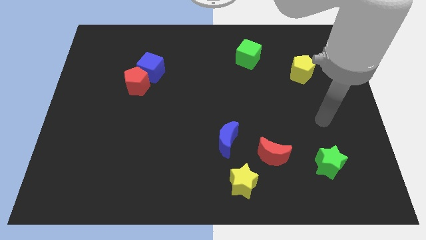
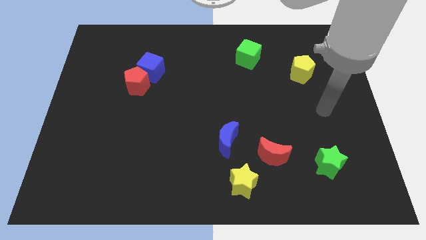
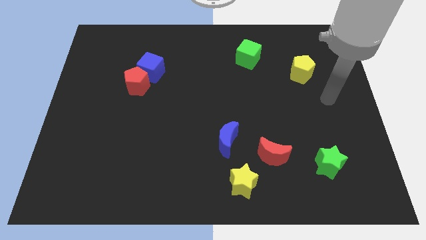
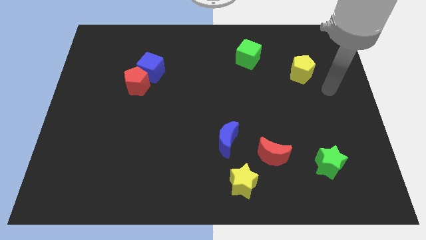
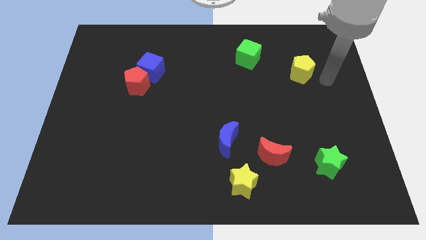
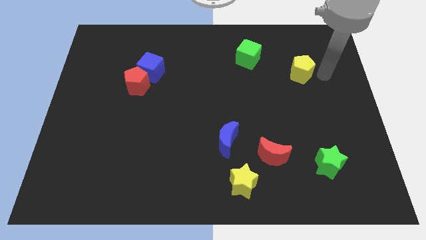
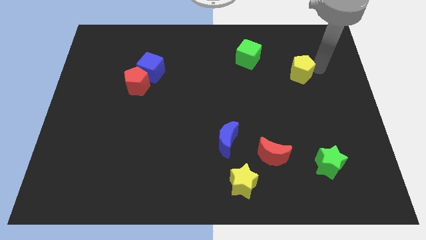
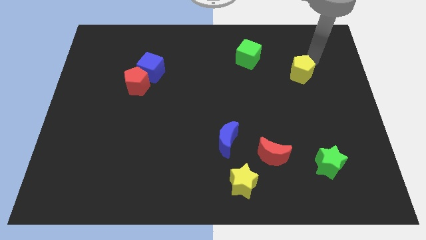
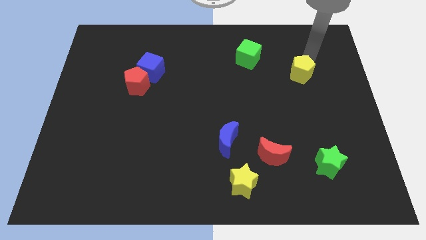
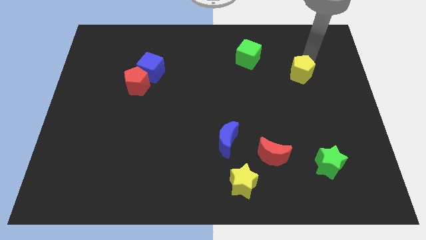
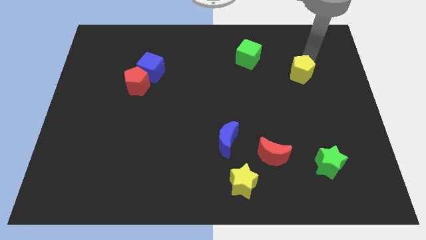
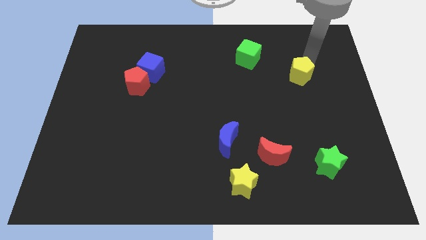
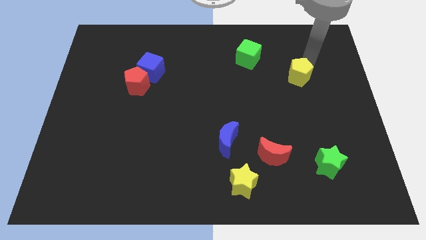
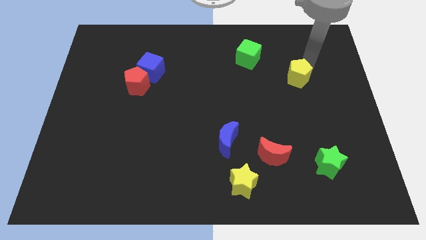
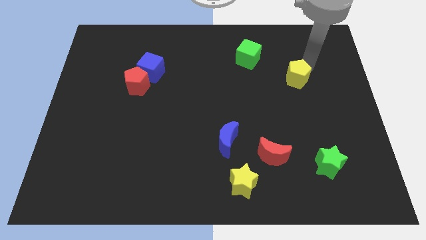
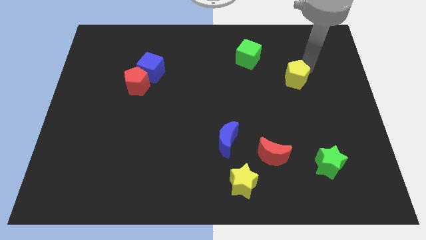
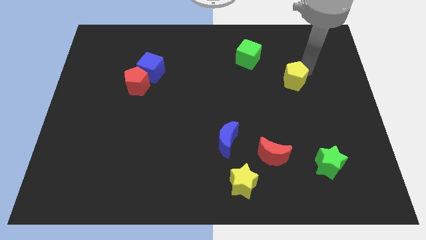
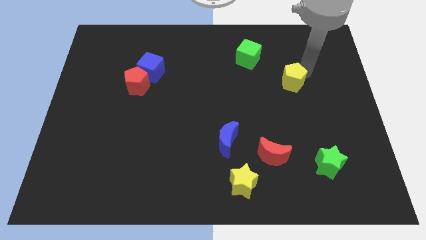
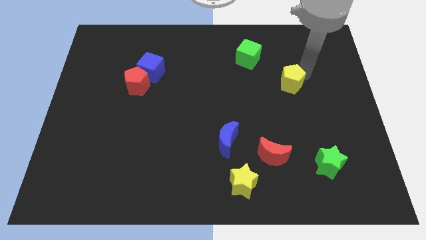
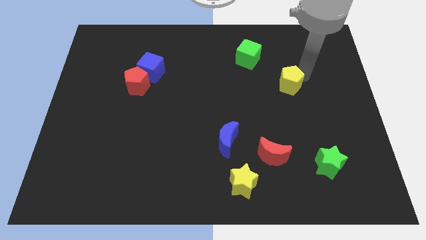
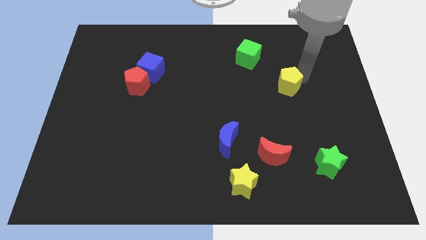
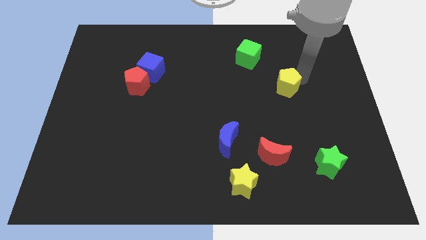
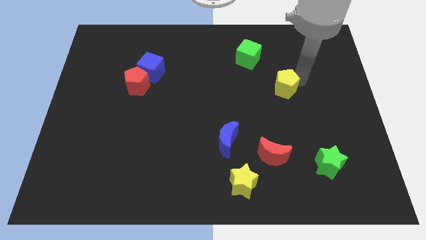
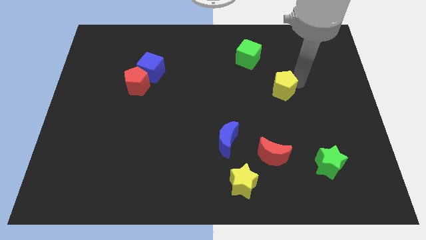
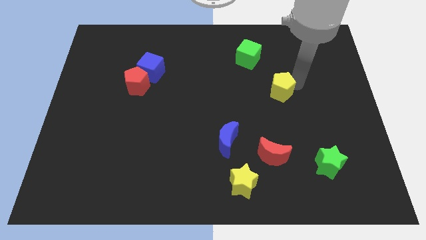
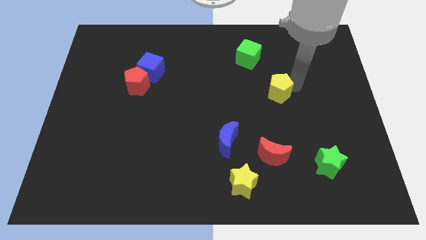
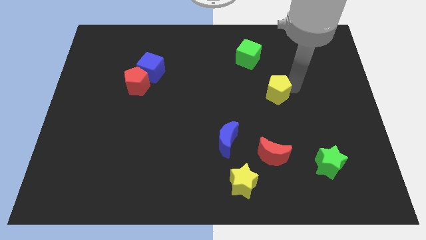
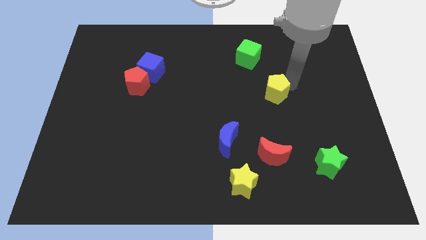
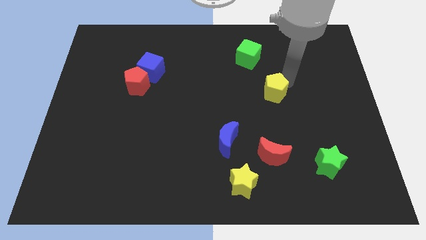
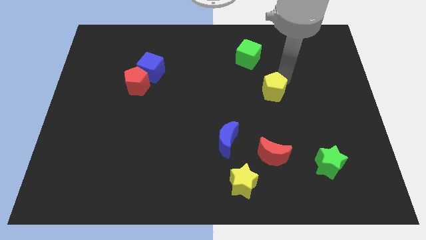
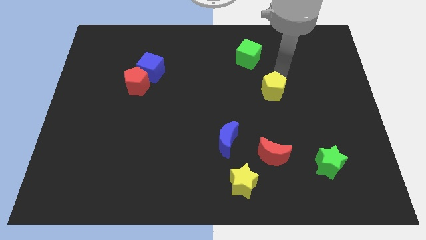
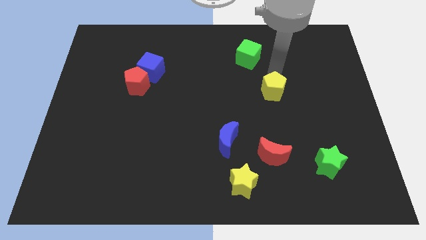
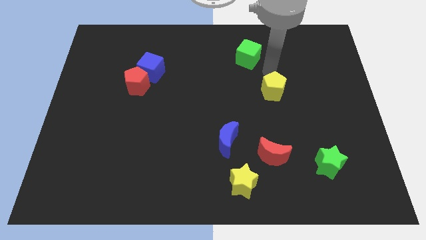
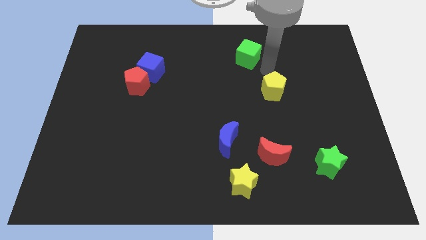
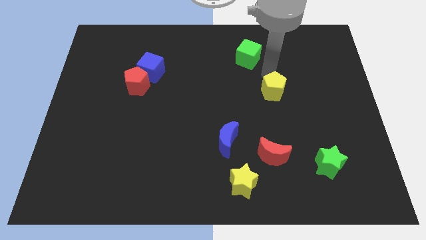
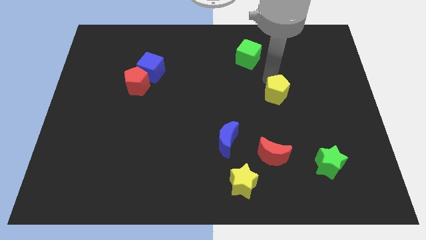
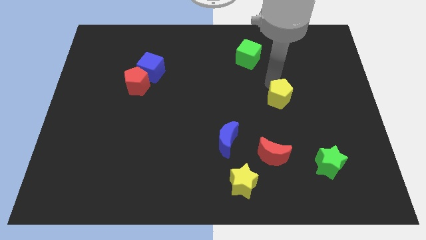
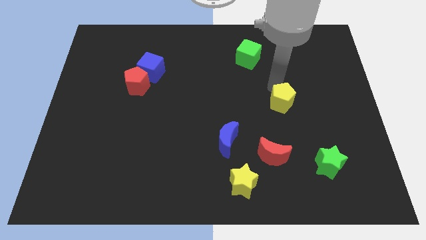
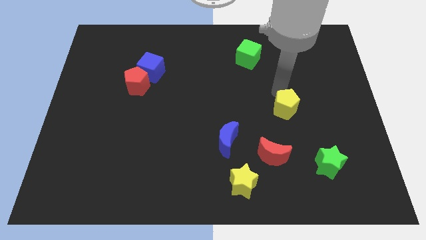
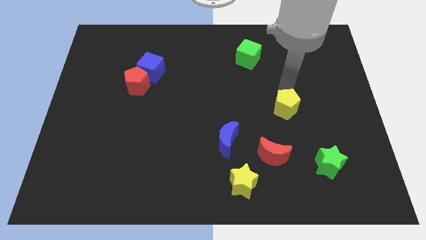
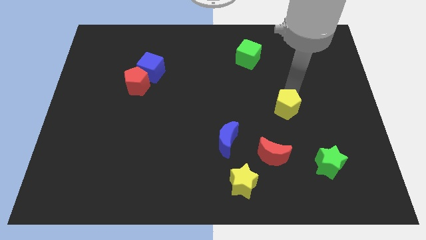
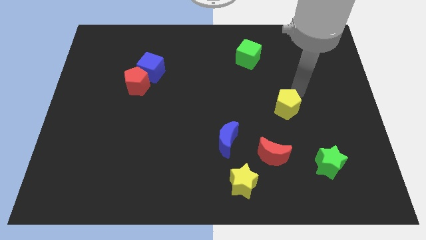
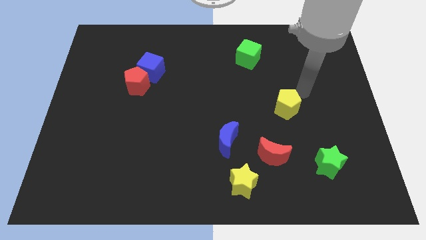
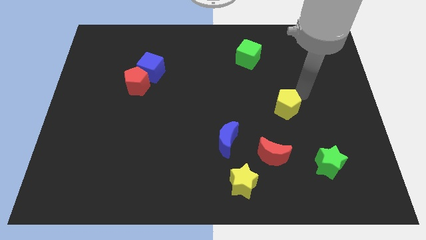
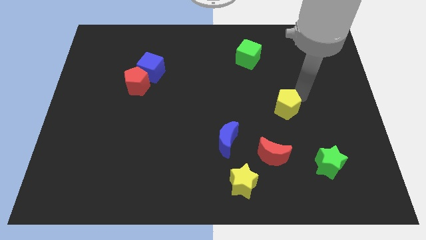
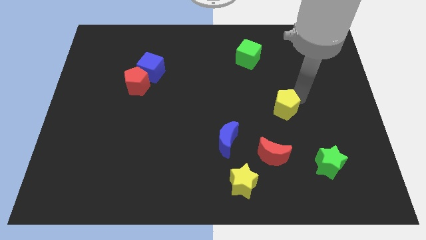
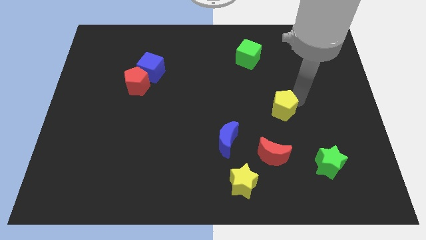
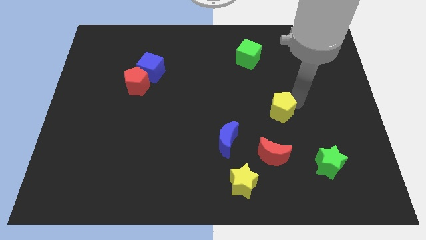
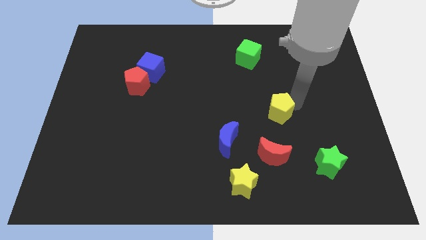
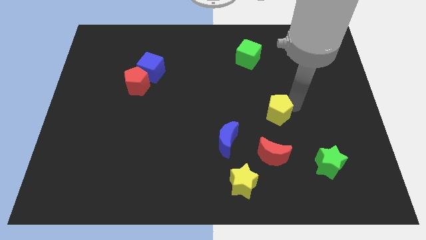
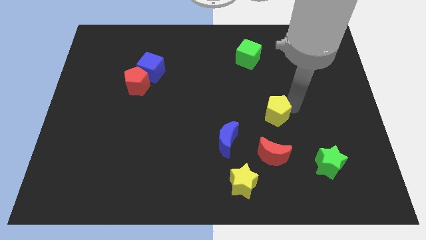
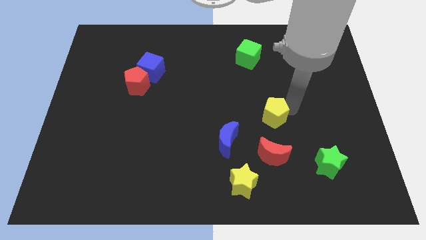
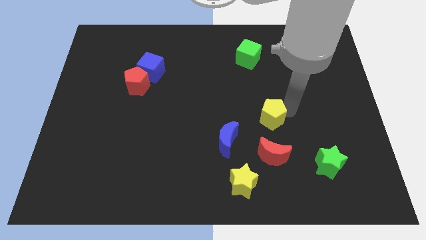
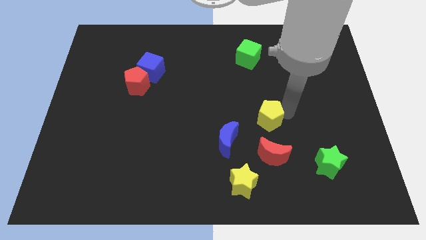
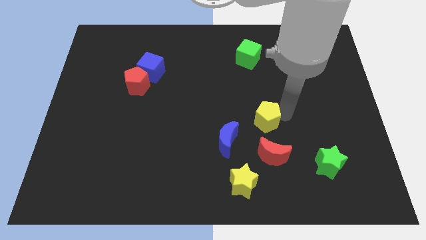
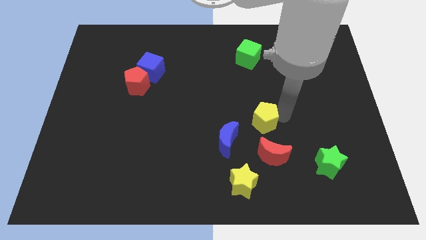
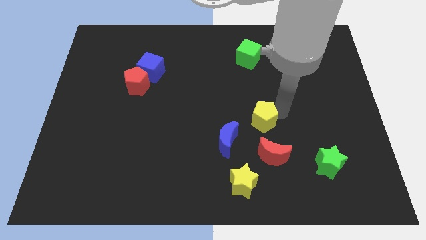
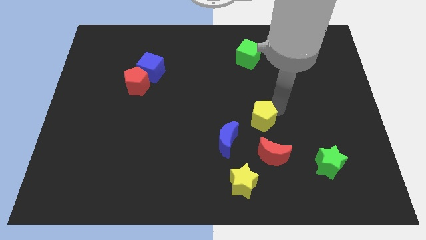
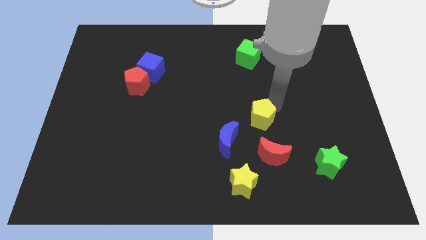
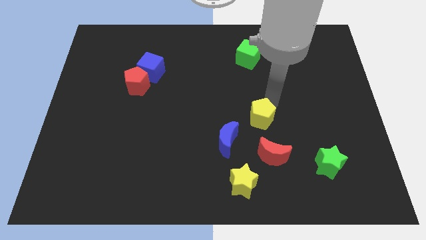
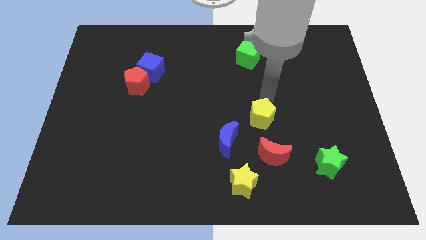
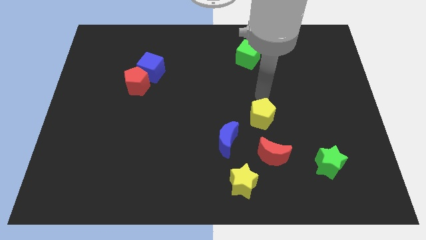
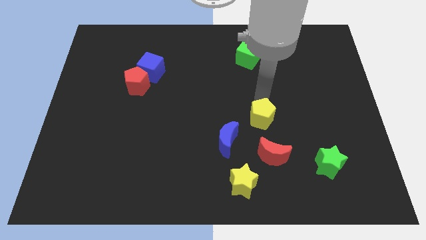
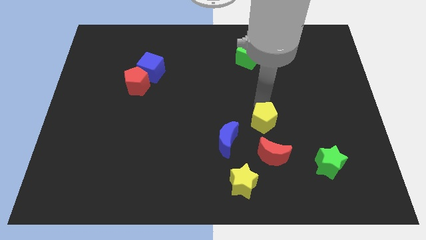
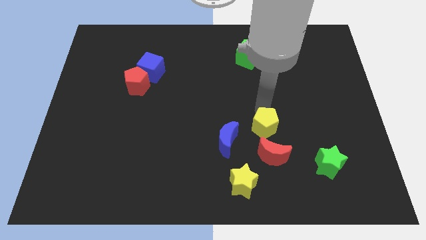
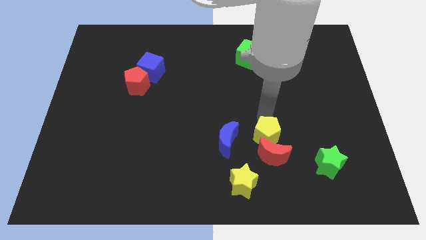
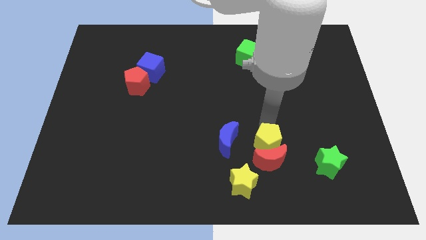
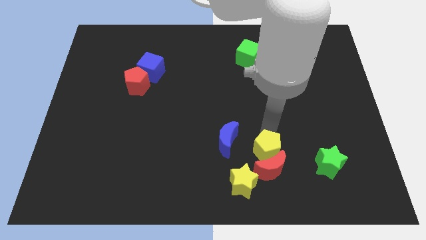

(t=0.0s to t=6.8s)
push the yellow pentagon to the bottom right side of the blue moon

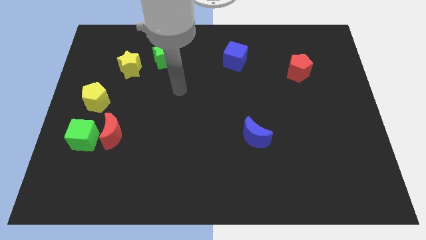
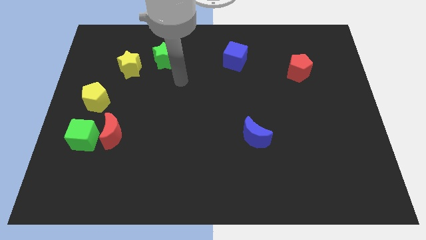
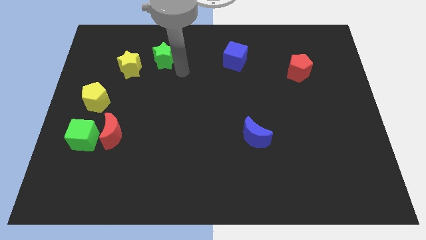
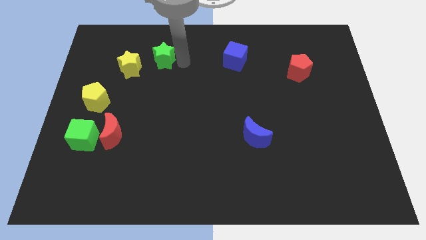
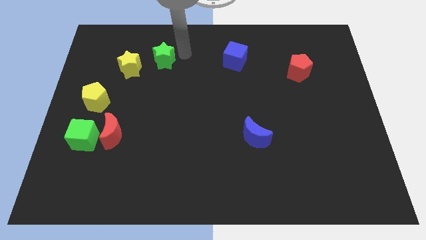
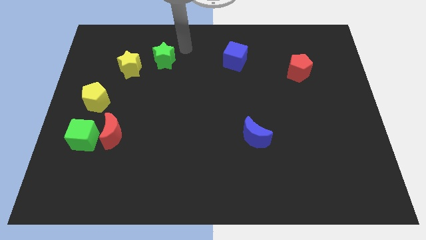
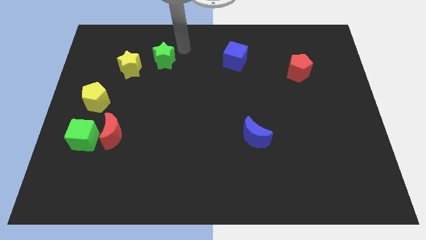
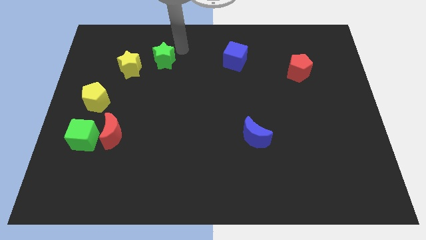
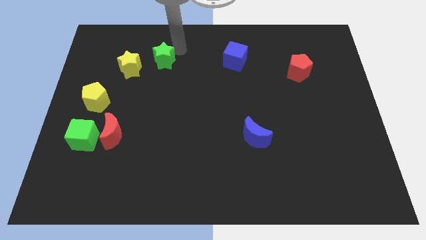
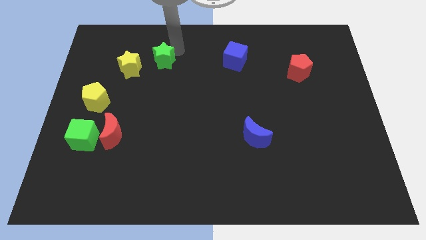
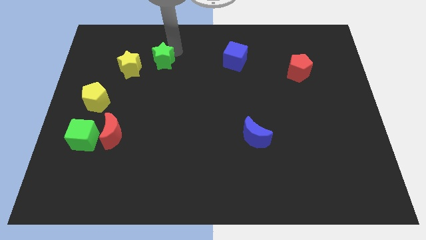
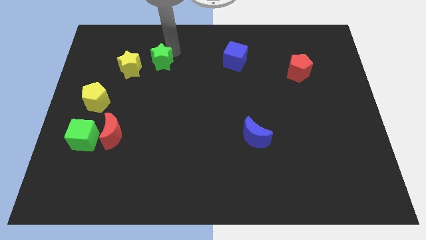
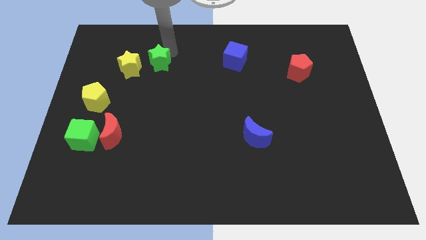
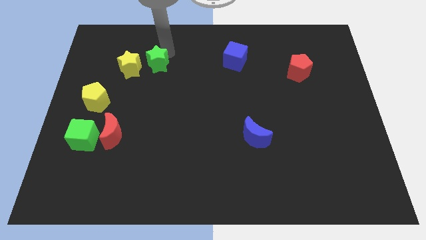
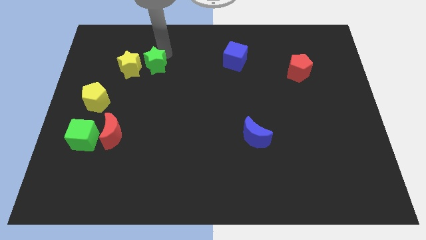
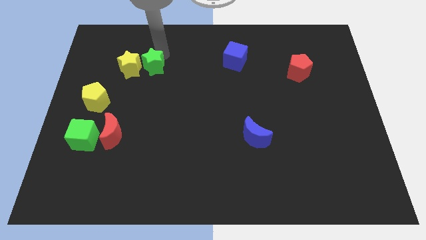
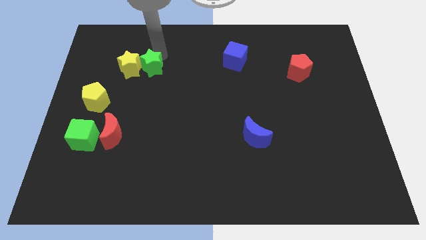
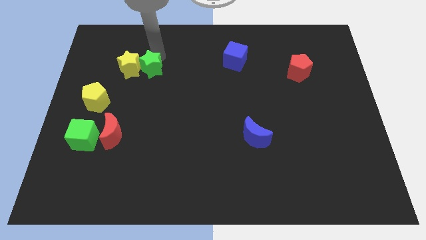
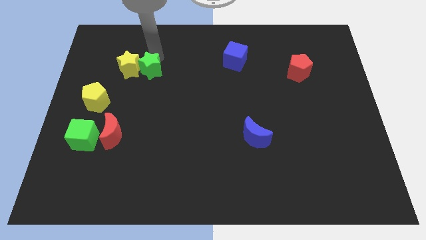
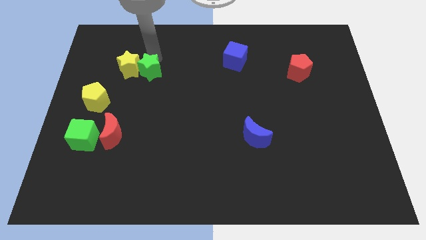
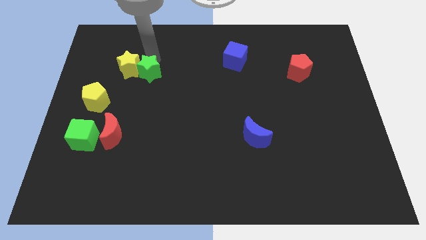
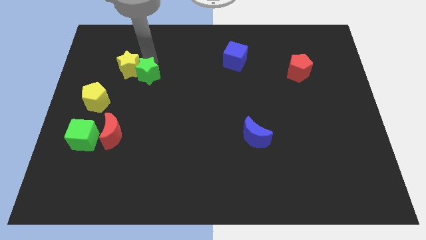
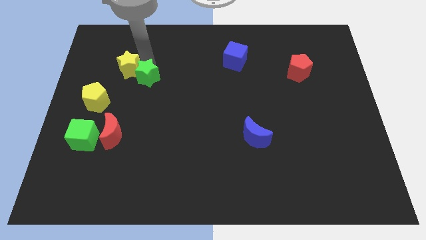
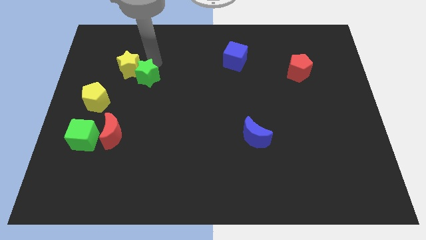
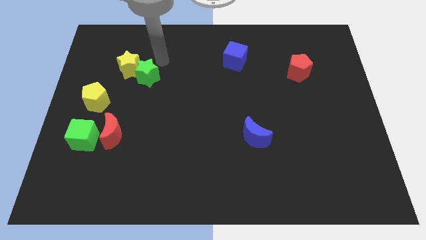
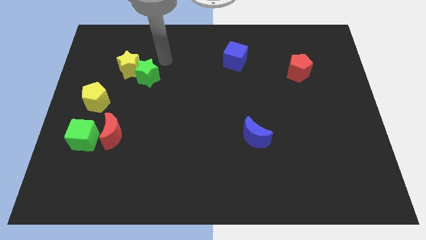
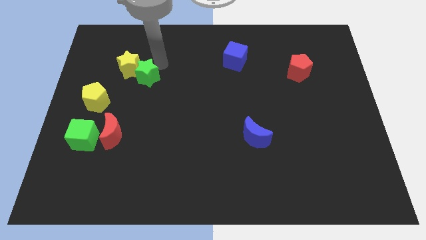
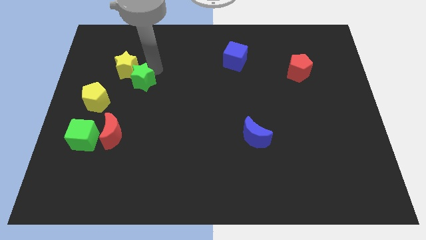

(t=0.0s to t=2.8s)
move the green star below the yellow star
